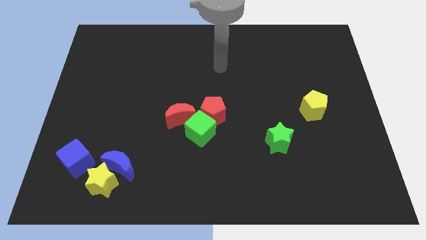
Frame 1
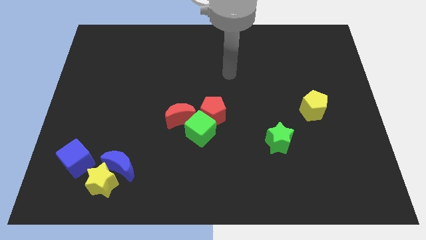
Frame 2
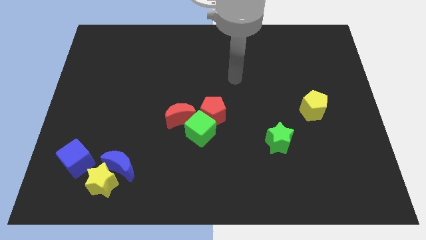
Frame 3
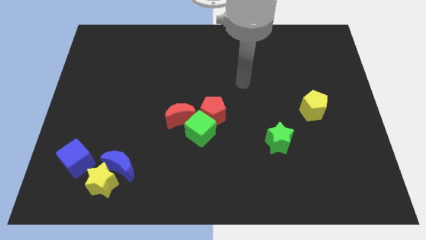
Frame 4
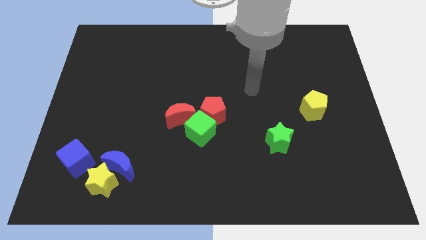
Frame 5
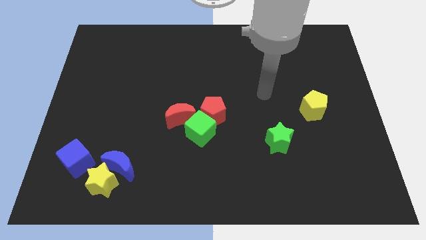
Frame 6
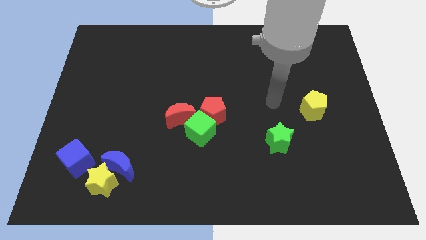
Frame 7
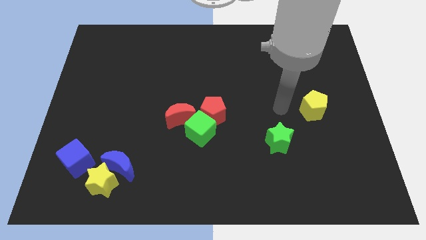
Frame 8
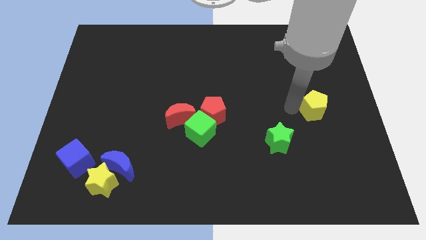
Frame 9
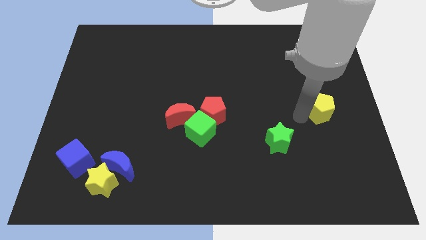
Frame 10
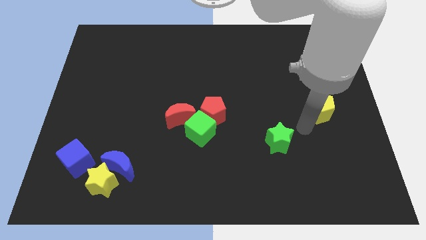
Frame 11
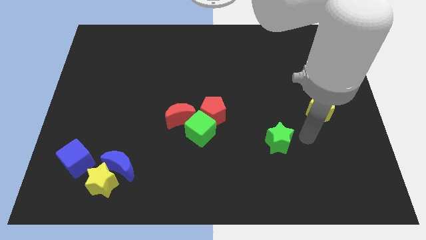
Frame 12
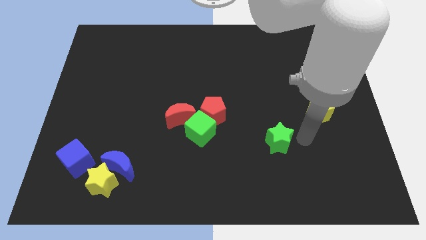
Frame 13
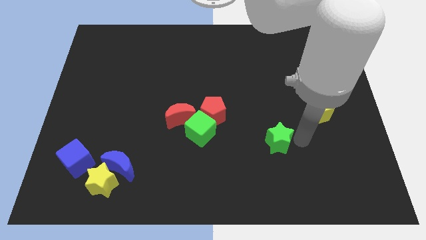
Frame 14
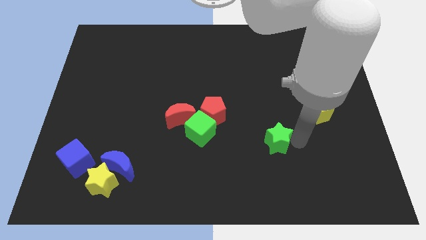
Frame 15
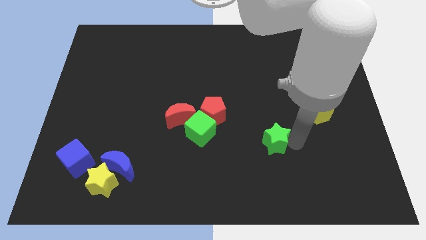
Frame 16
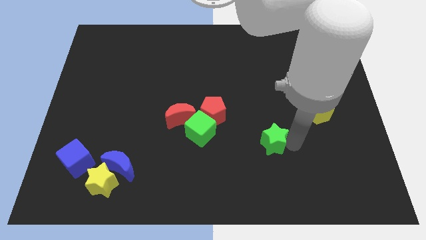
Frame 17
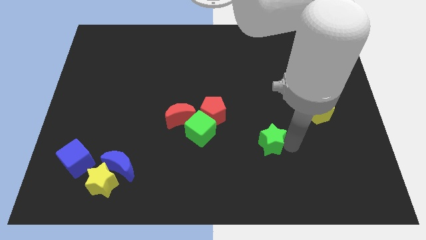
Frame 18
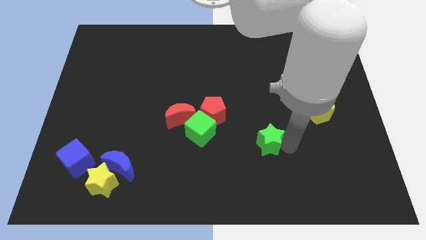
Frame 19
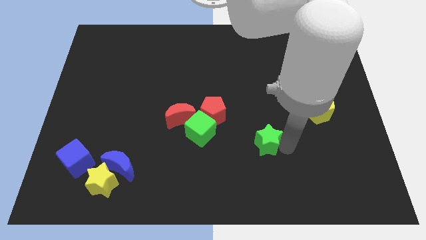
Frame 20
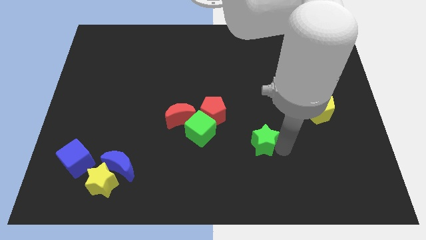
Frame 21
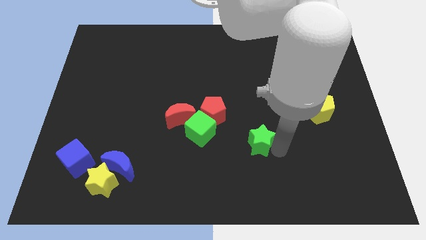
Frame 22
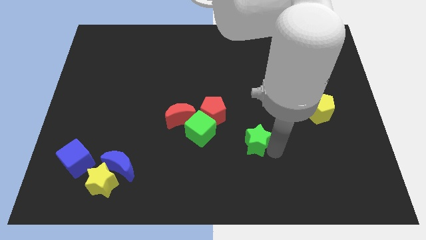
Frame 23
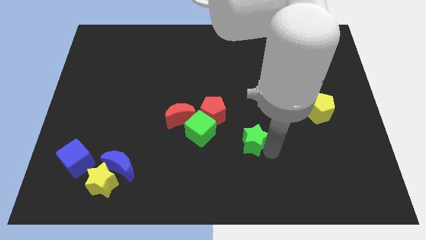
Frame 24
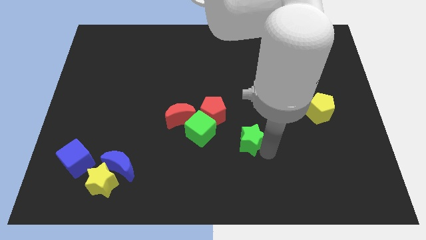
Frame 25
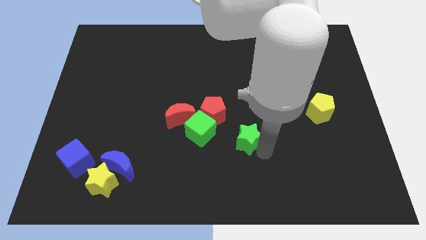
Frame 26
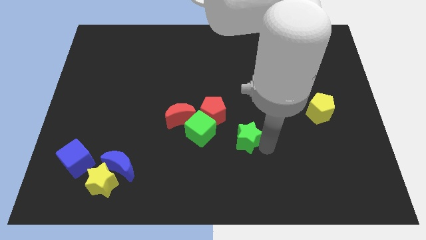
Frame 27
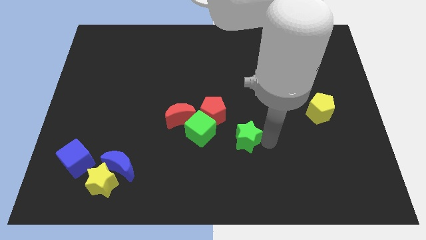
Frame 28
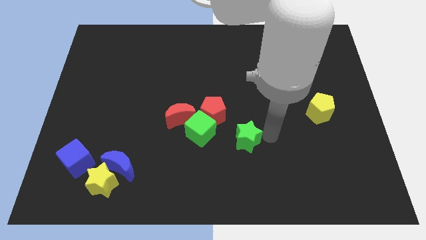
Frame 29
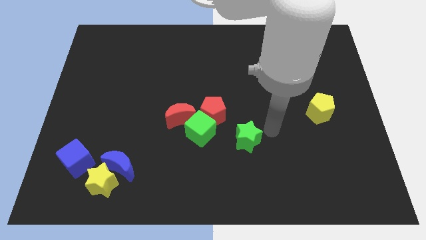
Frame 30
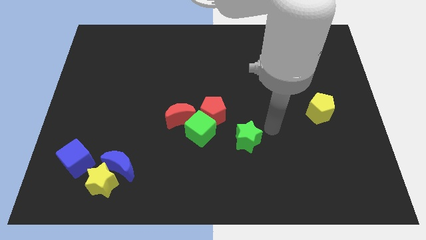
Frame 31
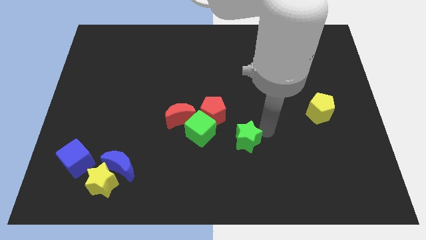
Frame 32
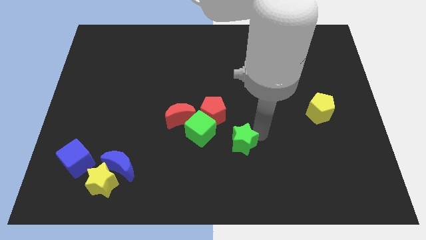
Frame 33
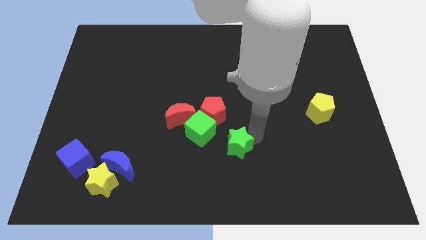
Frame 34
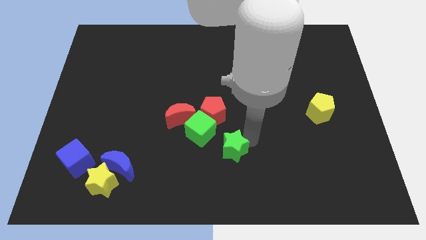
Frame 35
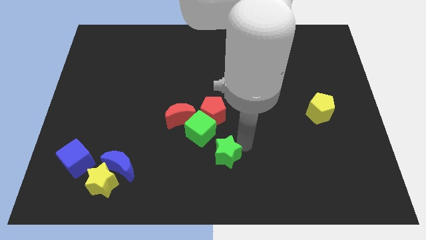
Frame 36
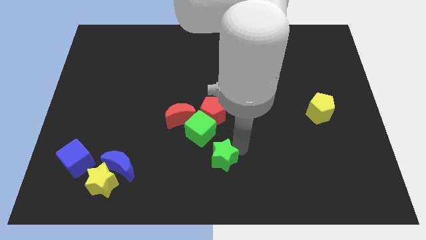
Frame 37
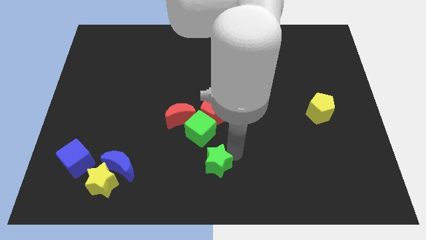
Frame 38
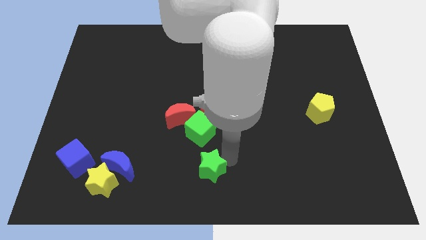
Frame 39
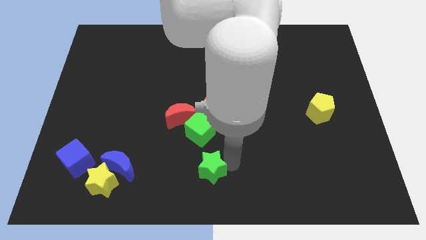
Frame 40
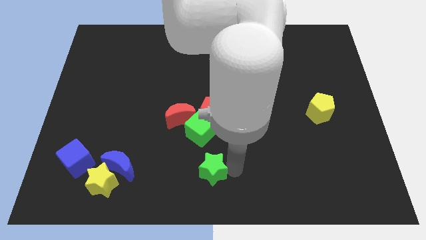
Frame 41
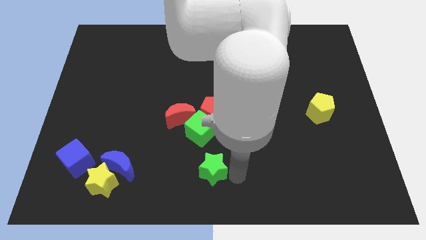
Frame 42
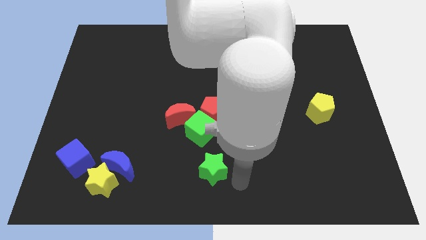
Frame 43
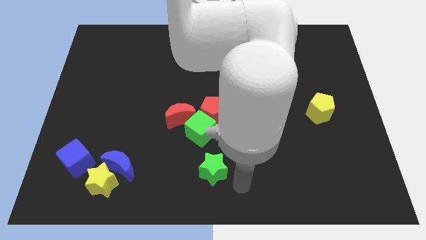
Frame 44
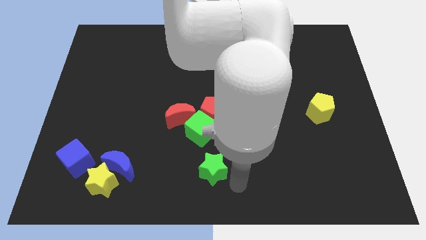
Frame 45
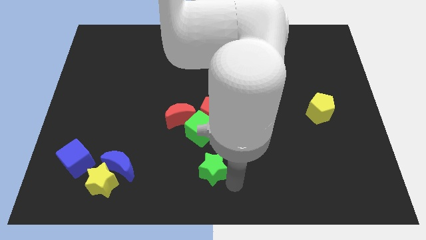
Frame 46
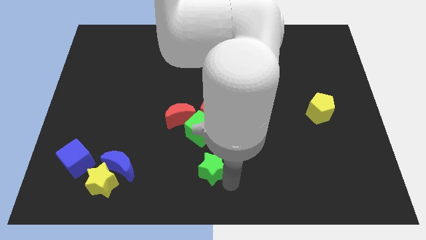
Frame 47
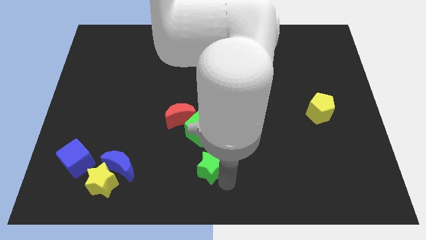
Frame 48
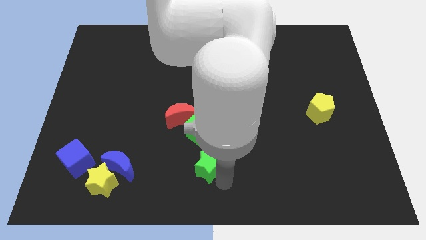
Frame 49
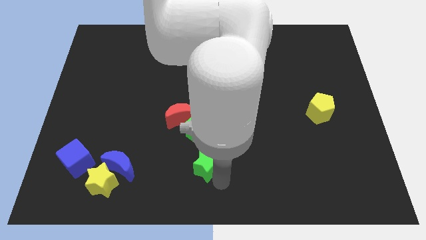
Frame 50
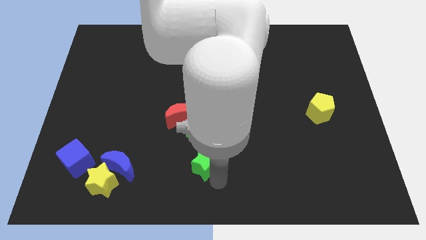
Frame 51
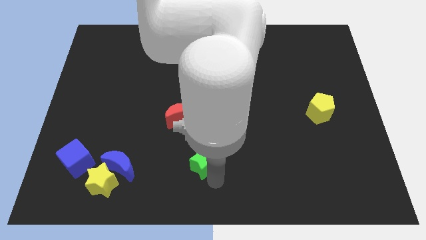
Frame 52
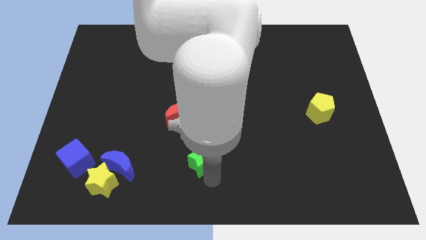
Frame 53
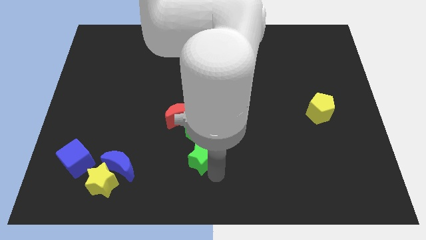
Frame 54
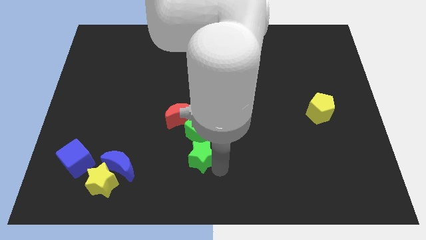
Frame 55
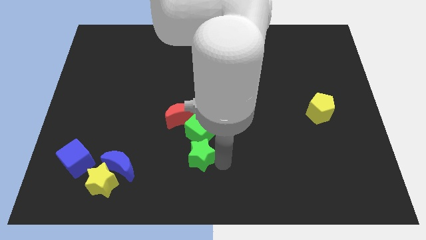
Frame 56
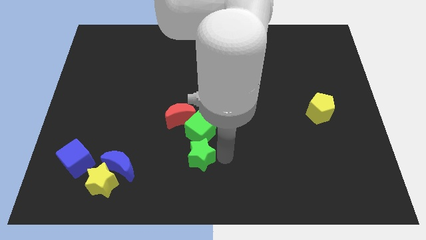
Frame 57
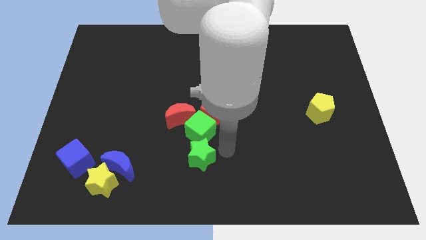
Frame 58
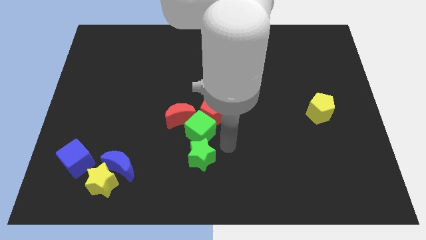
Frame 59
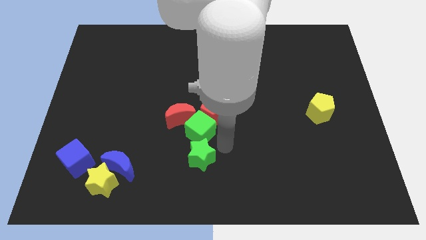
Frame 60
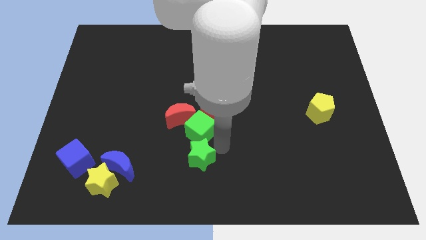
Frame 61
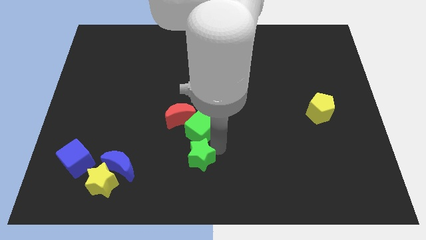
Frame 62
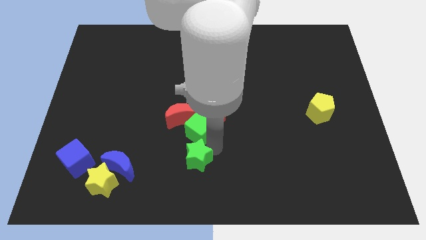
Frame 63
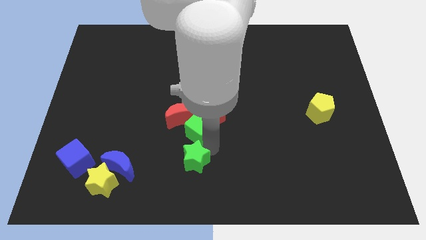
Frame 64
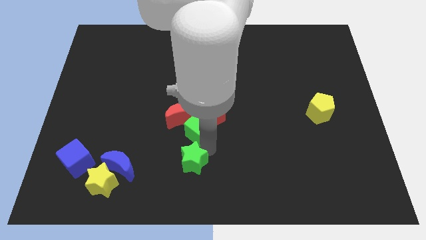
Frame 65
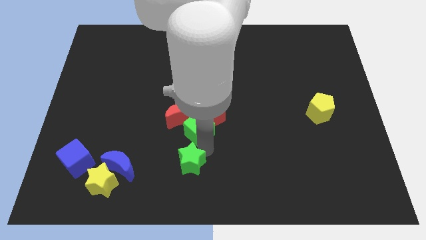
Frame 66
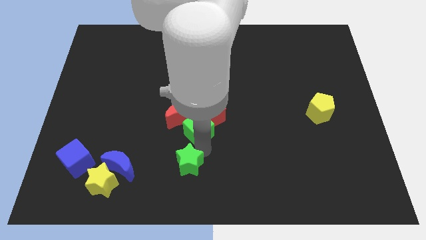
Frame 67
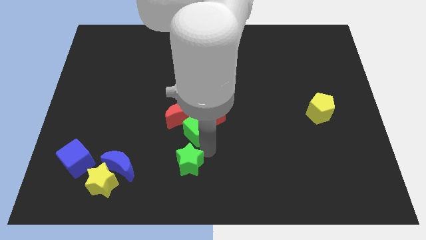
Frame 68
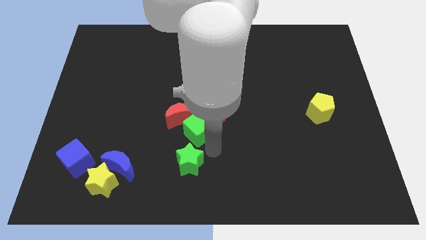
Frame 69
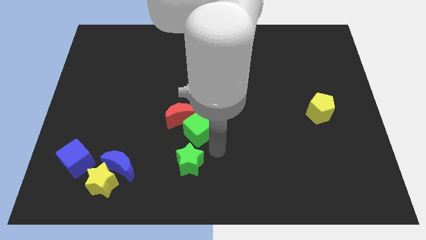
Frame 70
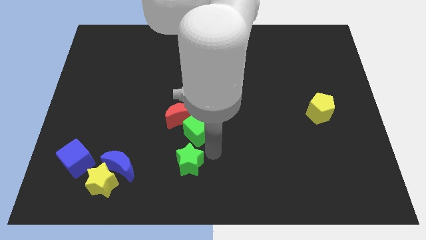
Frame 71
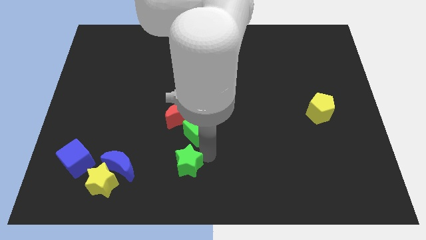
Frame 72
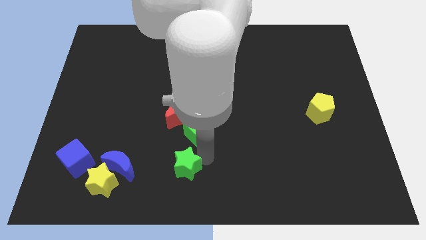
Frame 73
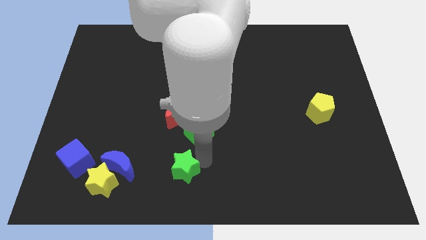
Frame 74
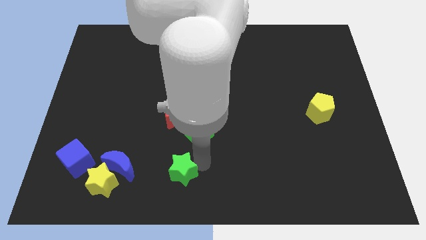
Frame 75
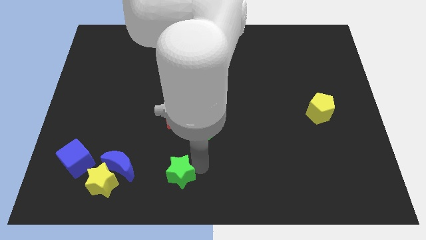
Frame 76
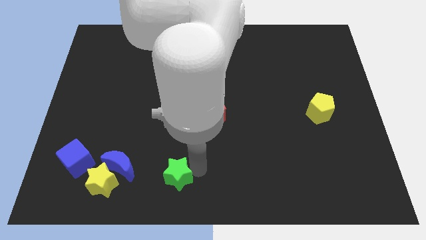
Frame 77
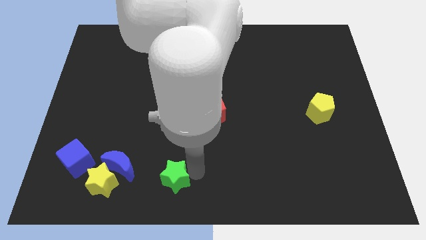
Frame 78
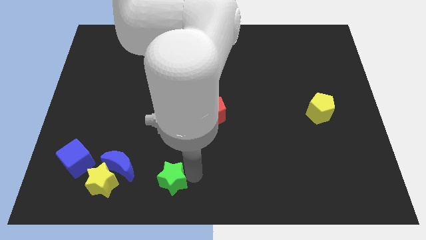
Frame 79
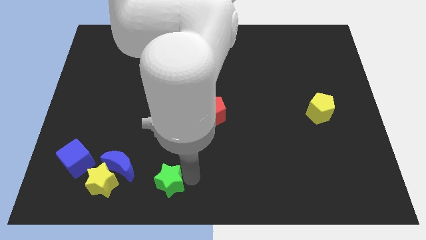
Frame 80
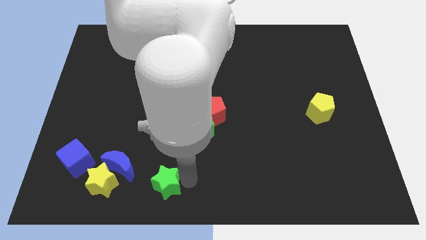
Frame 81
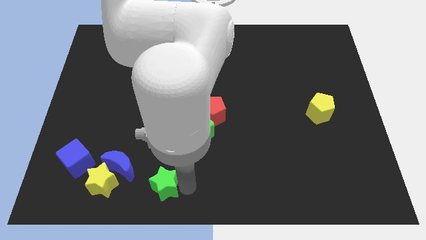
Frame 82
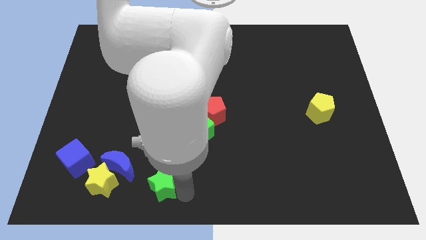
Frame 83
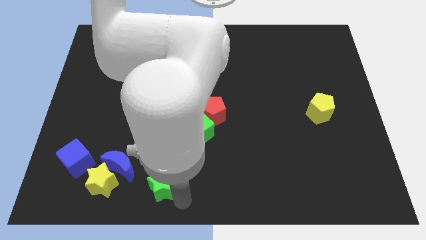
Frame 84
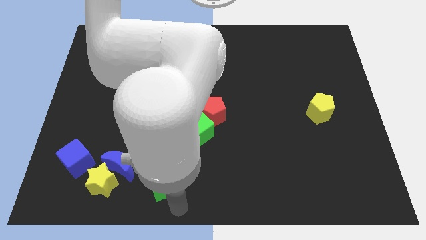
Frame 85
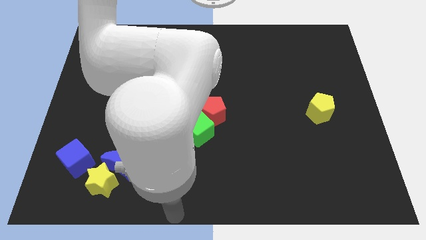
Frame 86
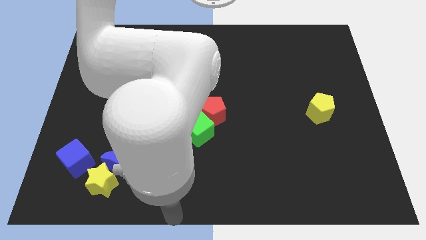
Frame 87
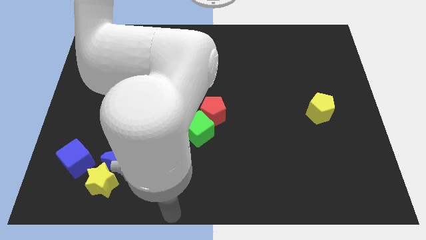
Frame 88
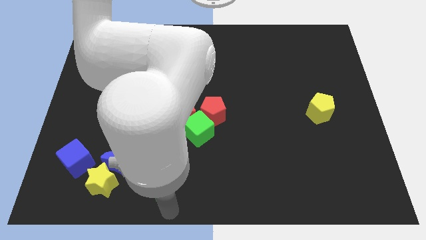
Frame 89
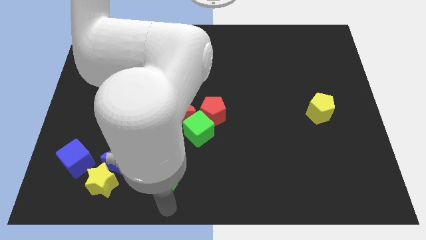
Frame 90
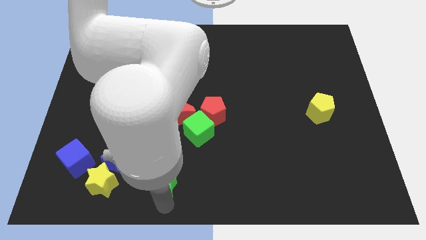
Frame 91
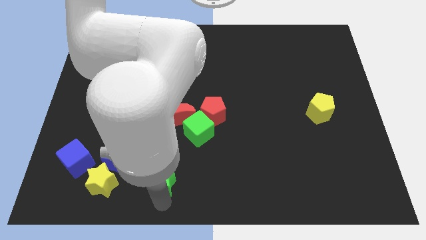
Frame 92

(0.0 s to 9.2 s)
push the green star to the left
